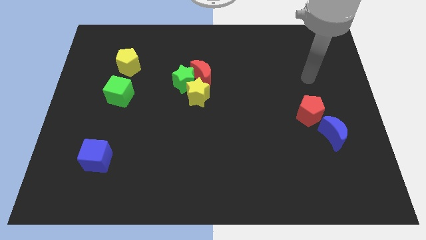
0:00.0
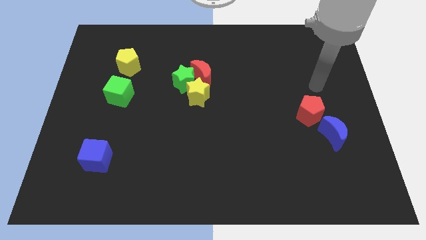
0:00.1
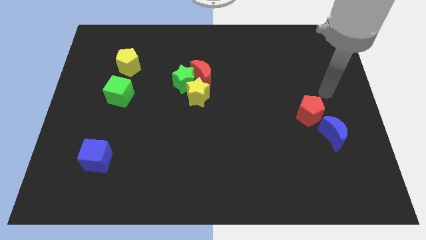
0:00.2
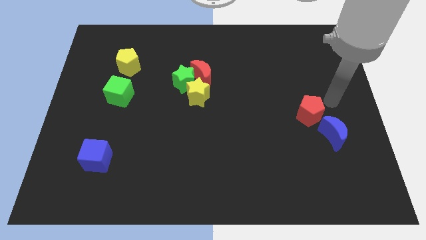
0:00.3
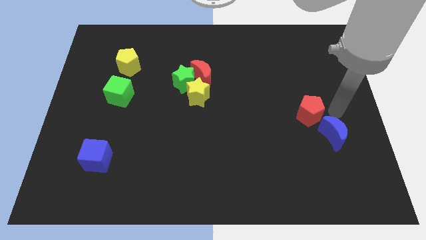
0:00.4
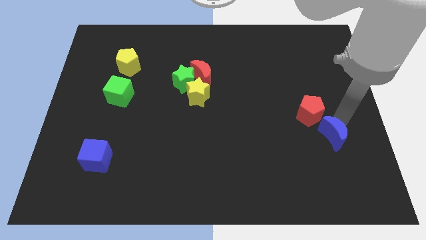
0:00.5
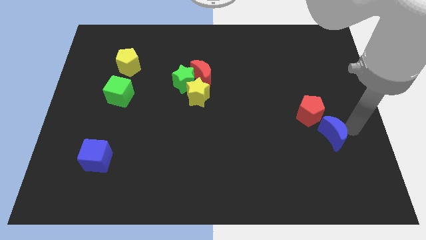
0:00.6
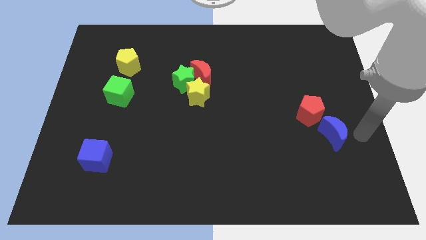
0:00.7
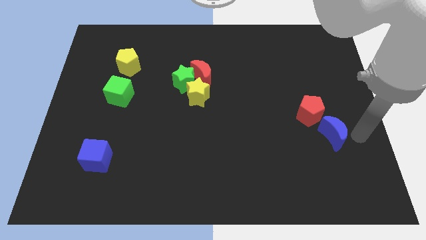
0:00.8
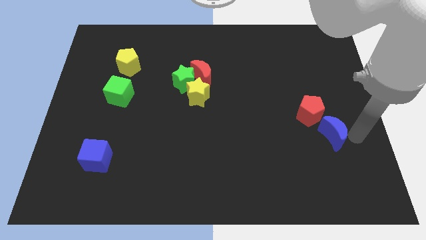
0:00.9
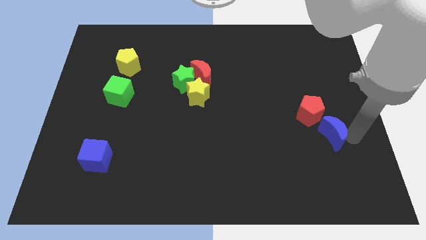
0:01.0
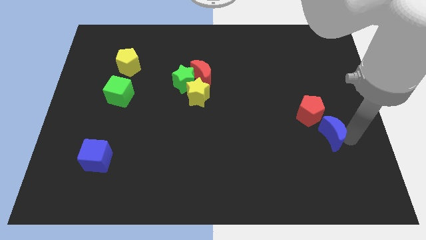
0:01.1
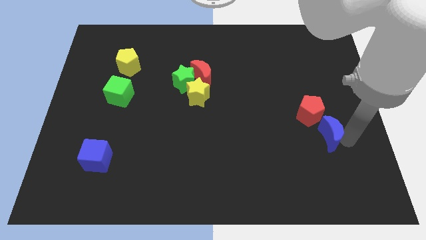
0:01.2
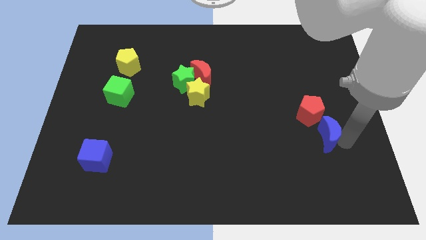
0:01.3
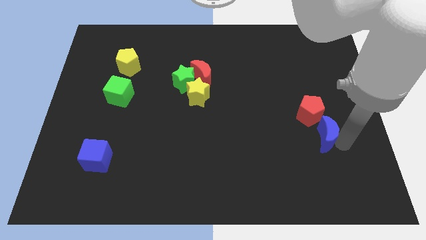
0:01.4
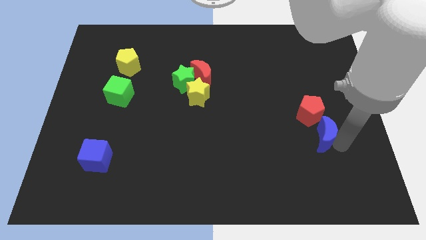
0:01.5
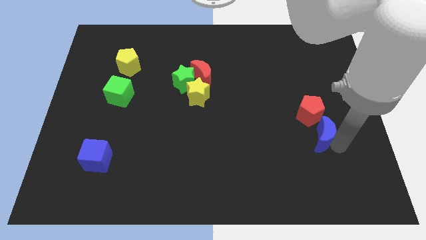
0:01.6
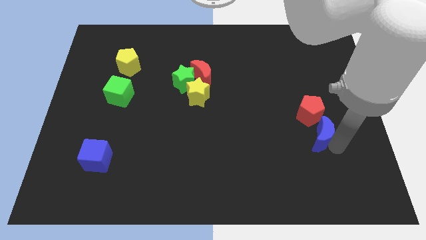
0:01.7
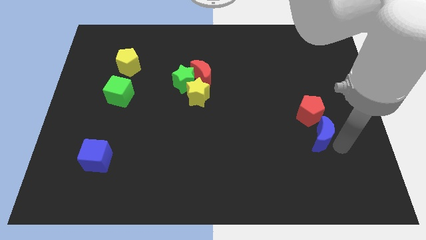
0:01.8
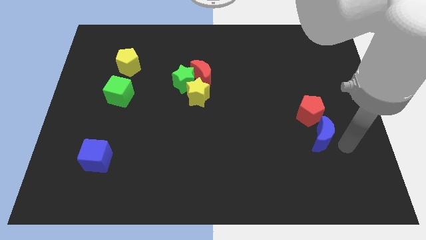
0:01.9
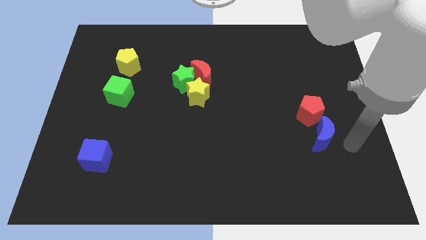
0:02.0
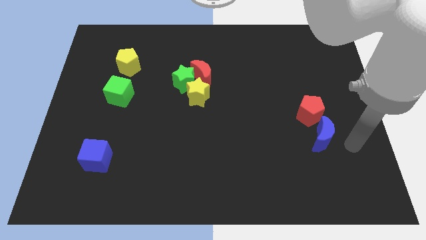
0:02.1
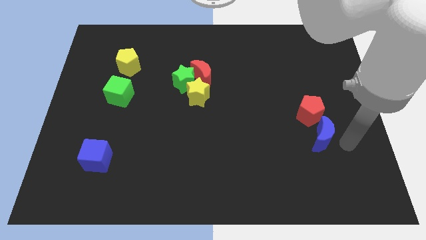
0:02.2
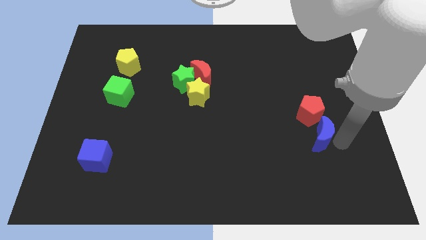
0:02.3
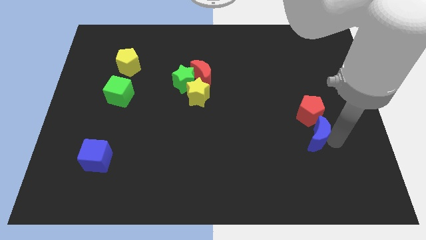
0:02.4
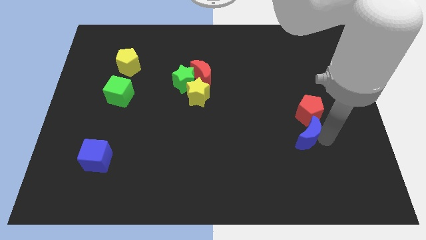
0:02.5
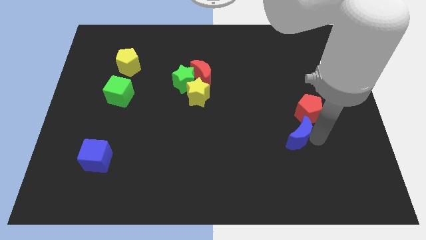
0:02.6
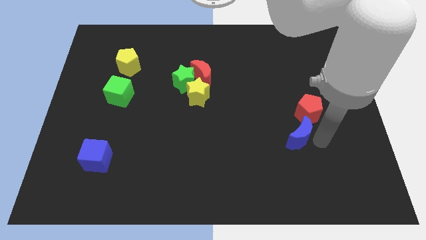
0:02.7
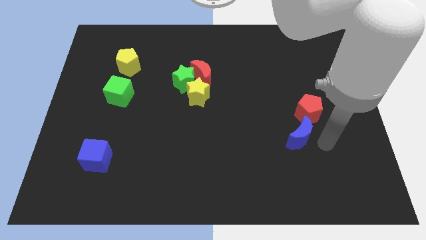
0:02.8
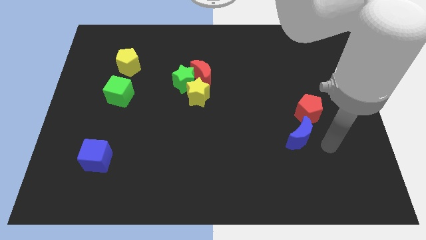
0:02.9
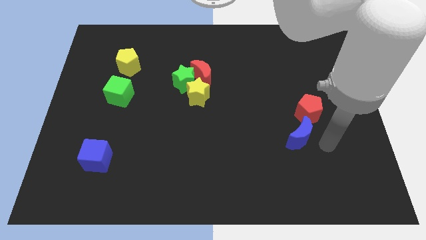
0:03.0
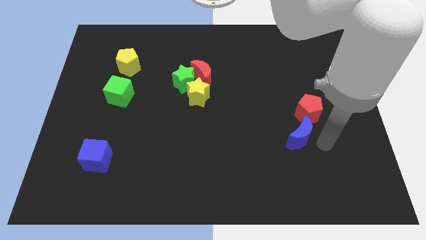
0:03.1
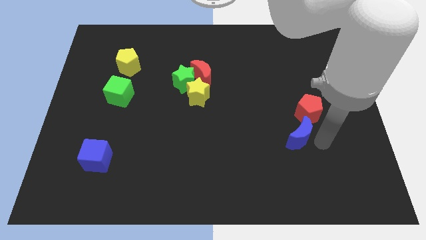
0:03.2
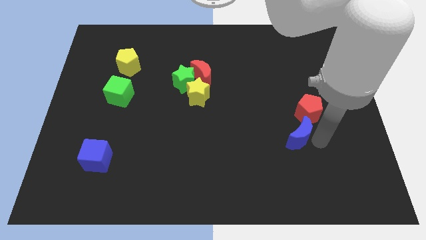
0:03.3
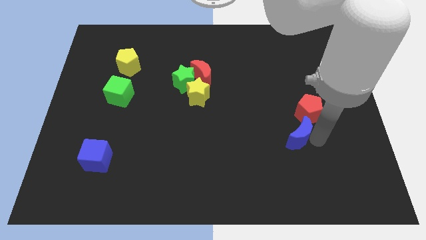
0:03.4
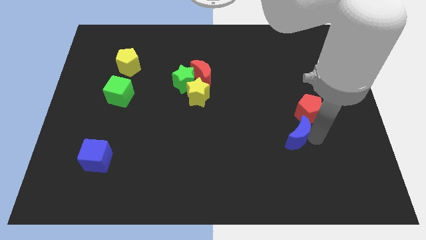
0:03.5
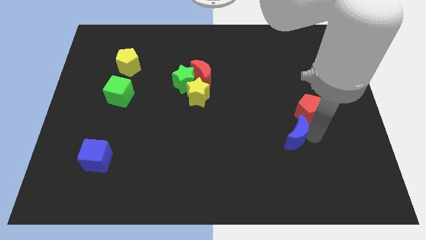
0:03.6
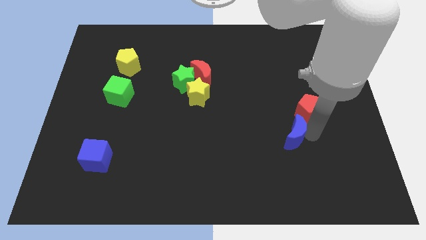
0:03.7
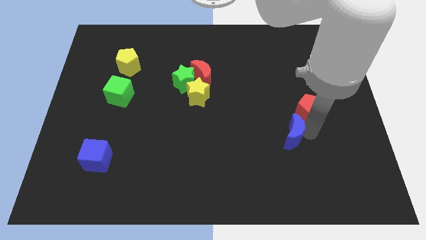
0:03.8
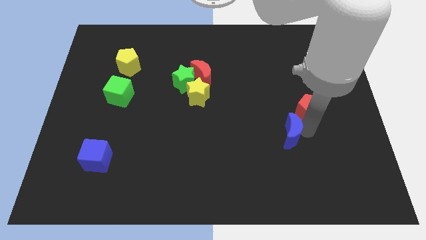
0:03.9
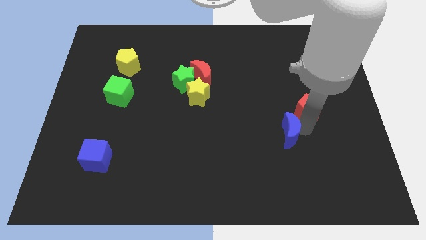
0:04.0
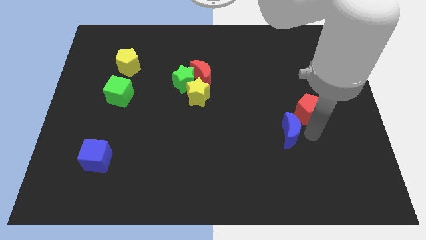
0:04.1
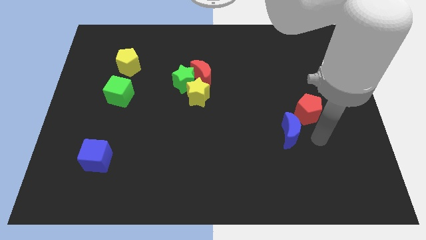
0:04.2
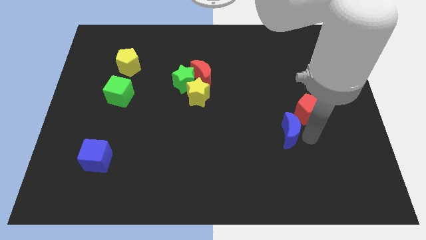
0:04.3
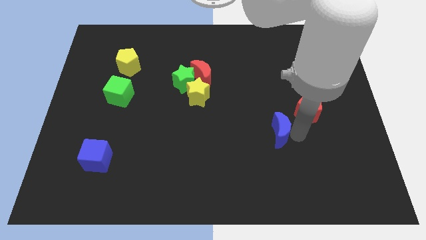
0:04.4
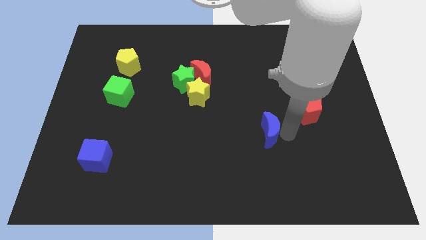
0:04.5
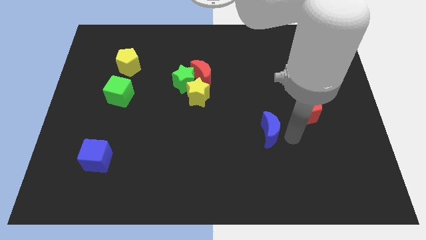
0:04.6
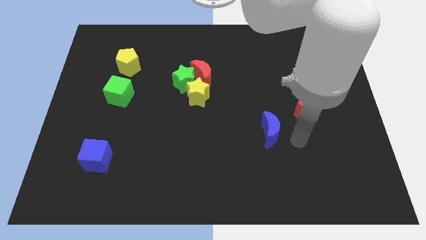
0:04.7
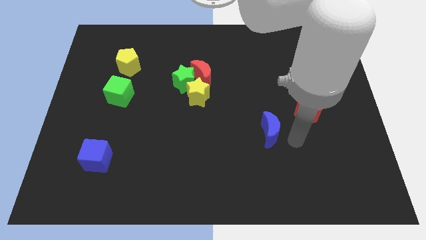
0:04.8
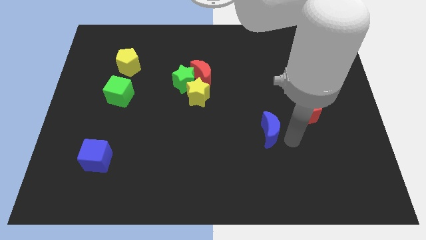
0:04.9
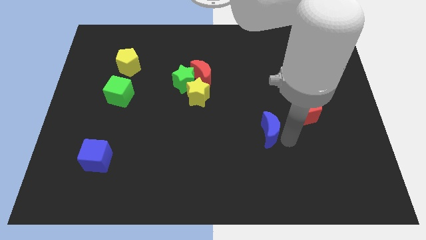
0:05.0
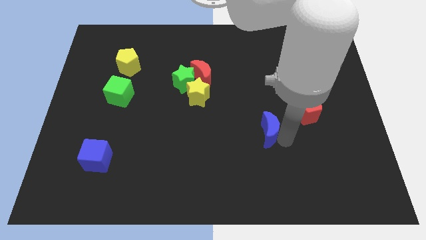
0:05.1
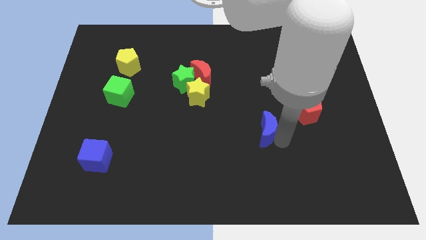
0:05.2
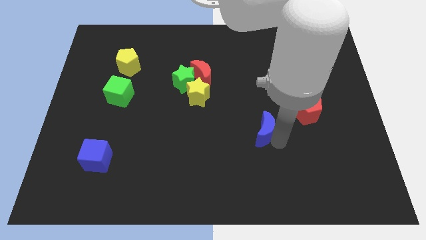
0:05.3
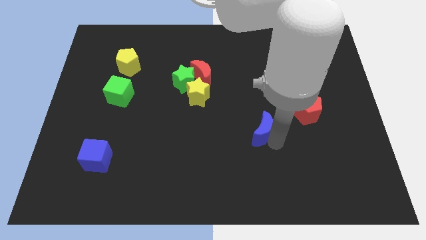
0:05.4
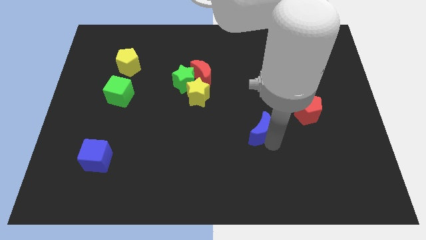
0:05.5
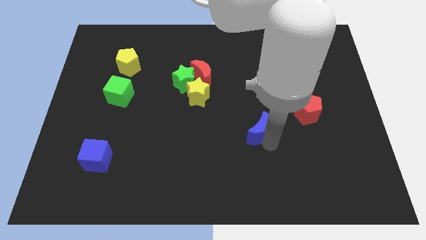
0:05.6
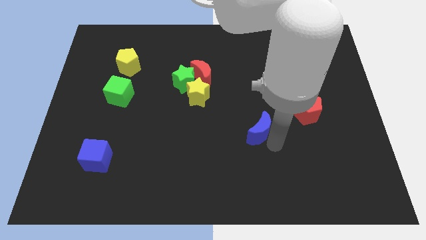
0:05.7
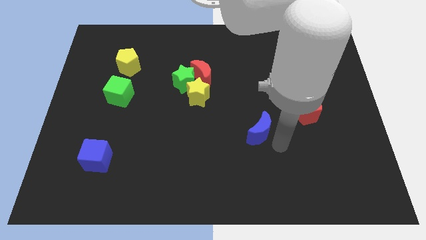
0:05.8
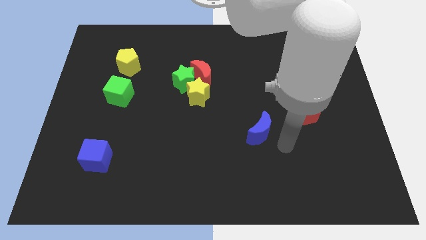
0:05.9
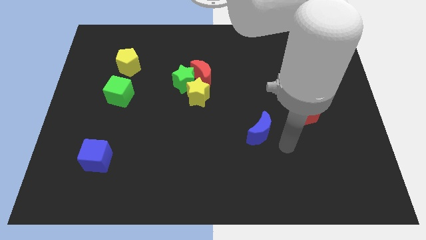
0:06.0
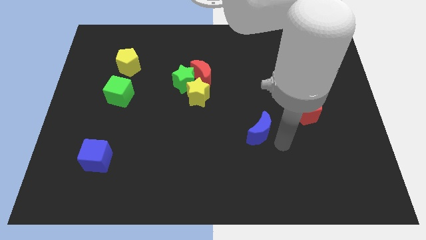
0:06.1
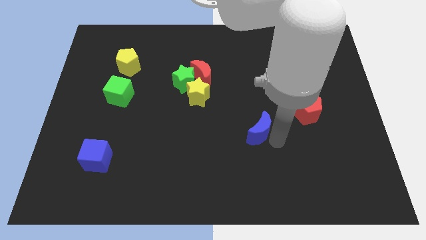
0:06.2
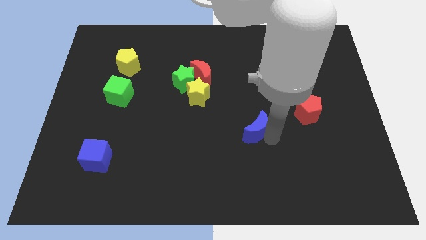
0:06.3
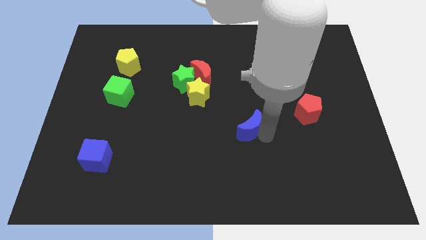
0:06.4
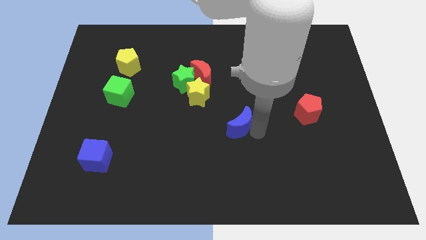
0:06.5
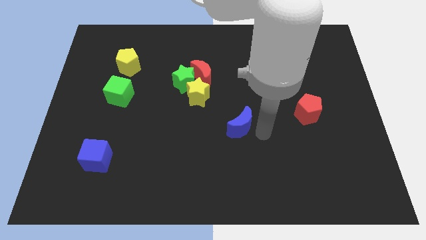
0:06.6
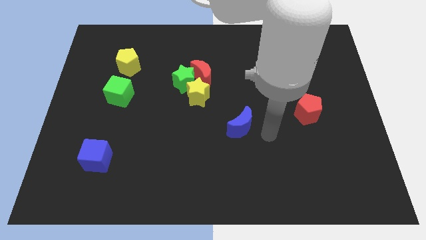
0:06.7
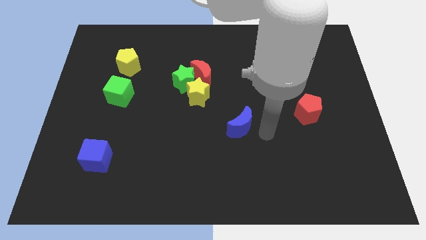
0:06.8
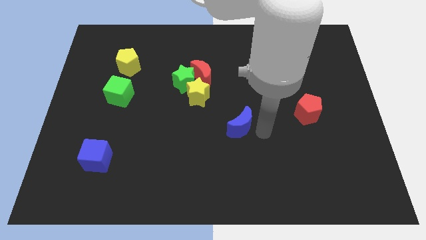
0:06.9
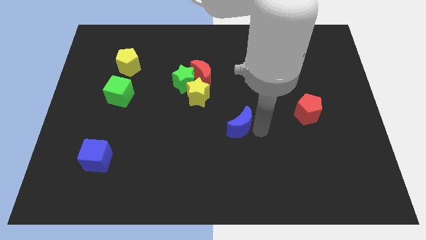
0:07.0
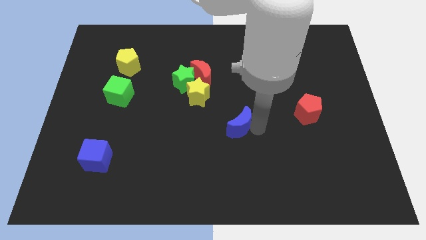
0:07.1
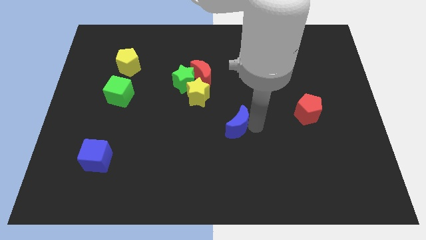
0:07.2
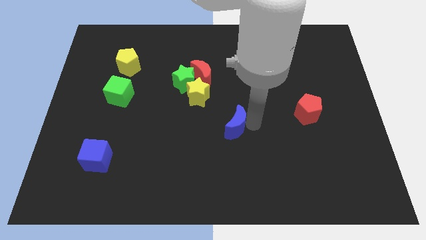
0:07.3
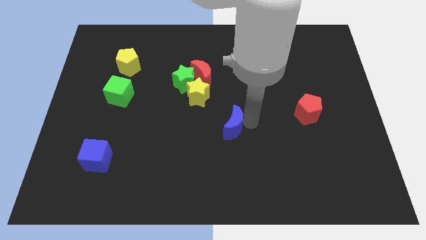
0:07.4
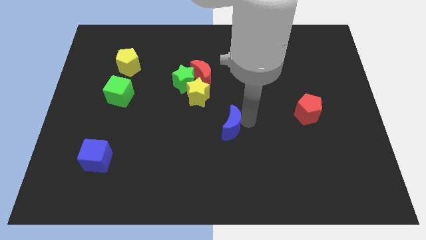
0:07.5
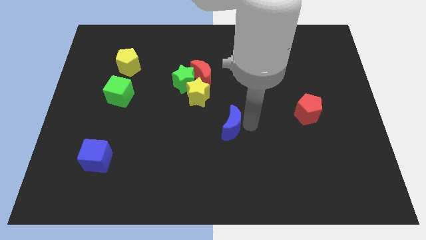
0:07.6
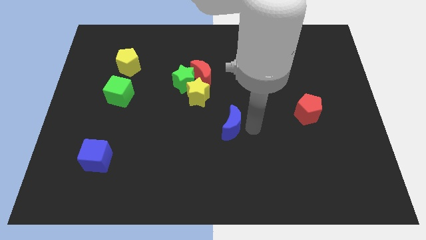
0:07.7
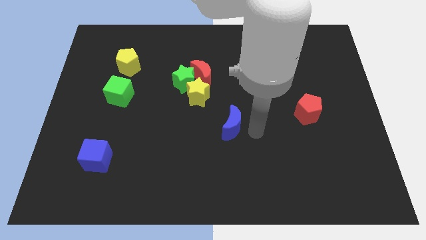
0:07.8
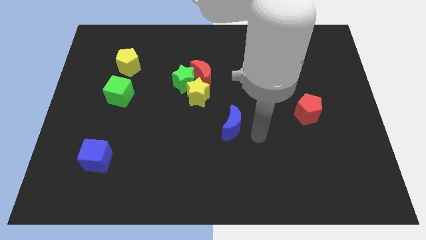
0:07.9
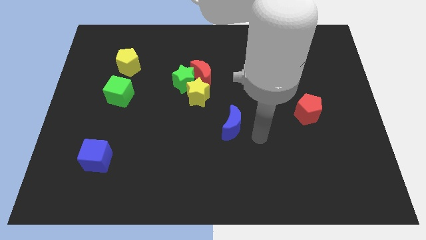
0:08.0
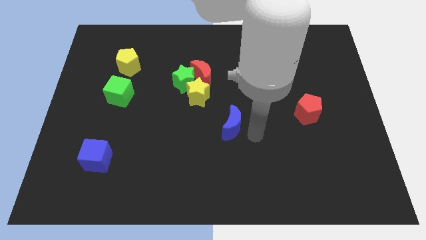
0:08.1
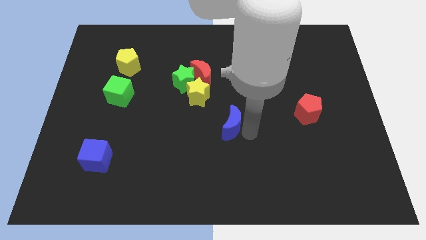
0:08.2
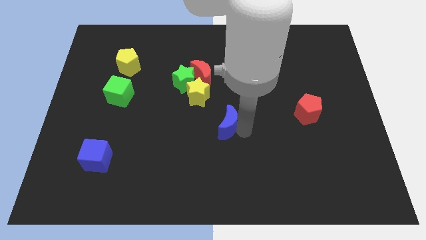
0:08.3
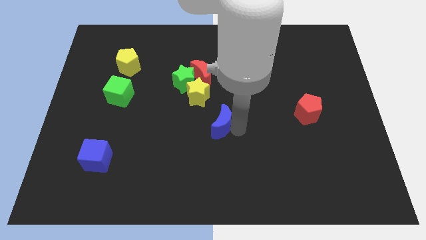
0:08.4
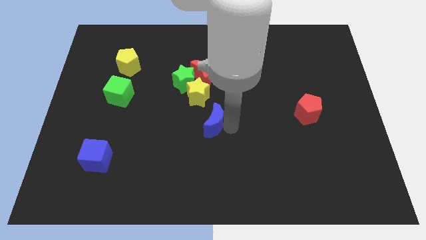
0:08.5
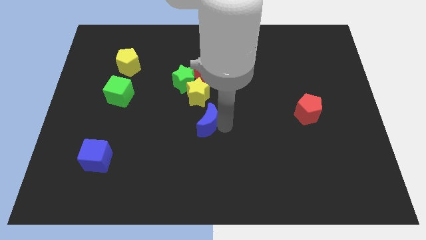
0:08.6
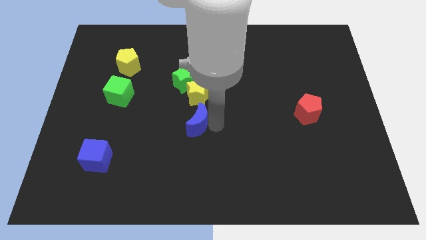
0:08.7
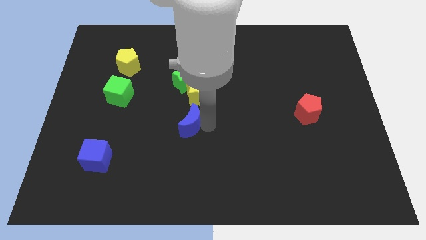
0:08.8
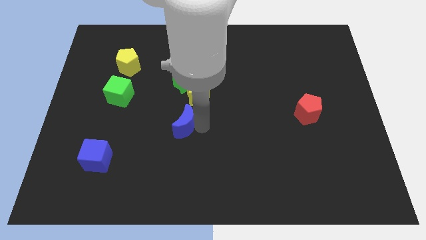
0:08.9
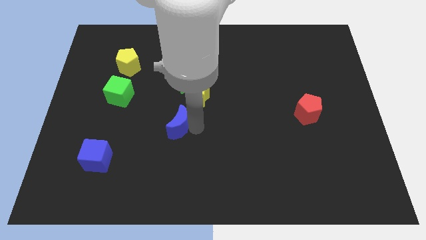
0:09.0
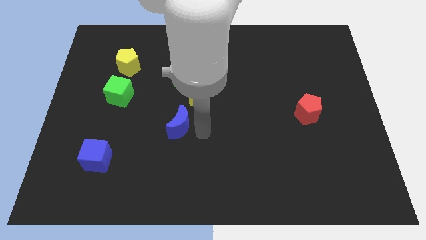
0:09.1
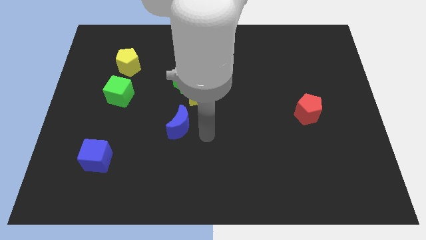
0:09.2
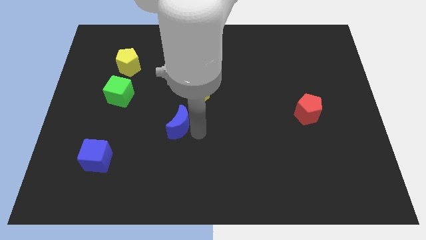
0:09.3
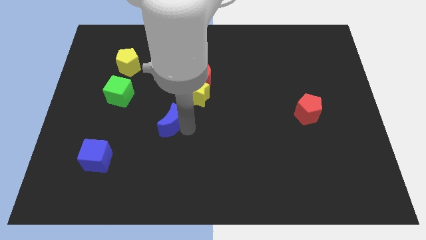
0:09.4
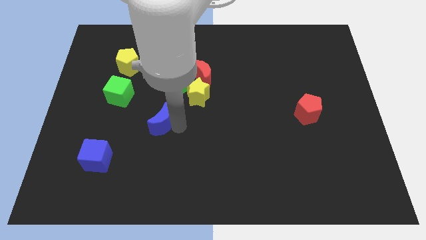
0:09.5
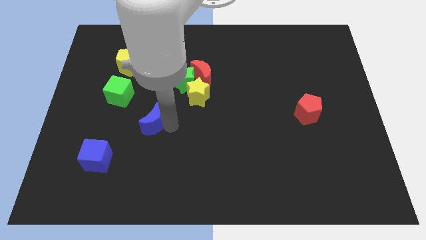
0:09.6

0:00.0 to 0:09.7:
move the blue moon to the bottom right of the green cube
